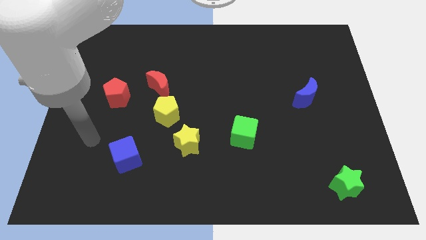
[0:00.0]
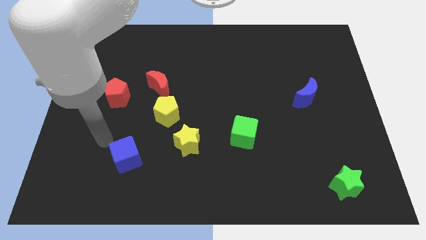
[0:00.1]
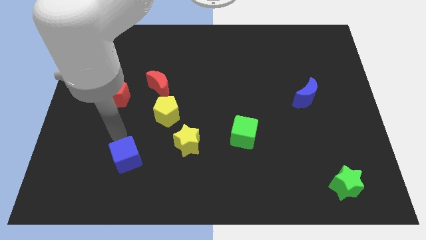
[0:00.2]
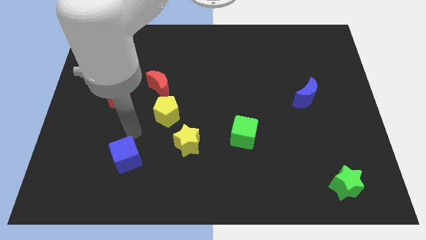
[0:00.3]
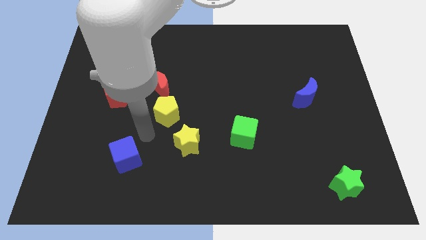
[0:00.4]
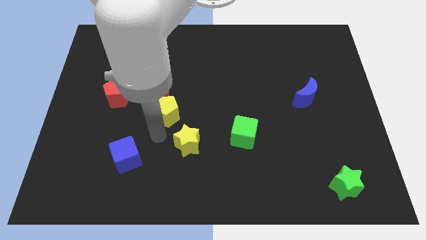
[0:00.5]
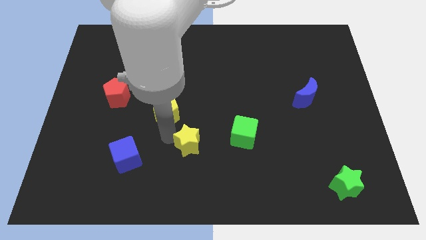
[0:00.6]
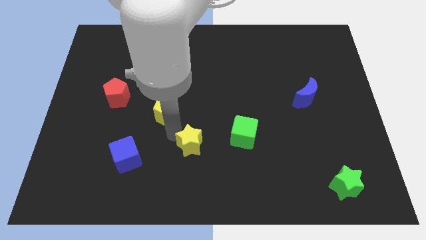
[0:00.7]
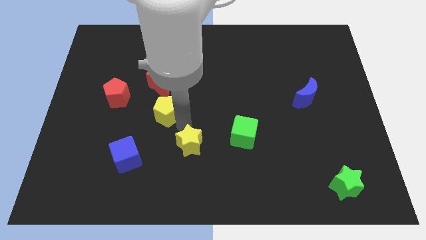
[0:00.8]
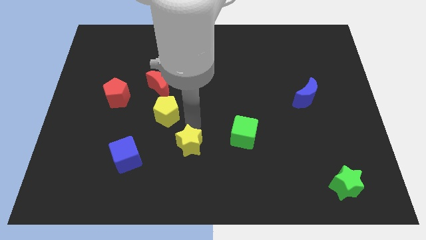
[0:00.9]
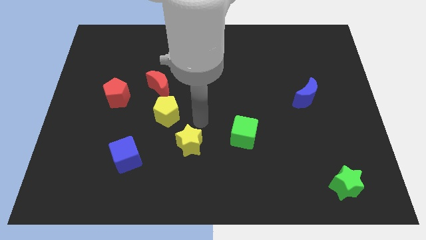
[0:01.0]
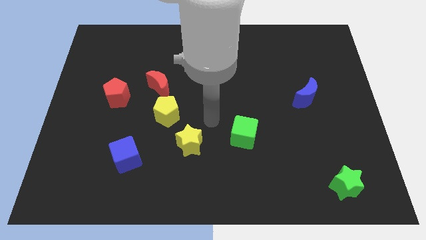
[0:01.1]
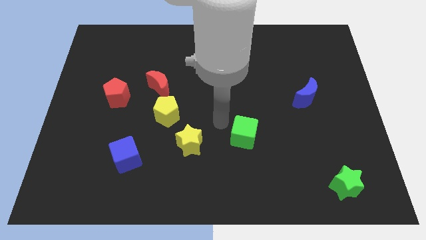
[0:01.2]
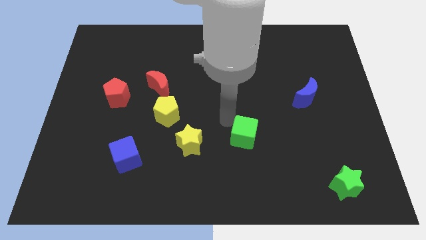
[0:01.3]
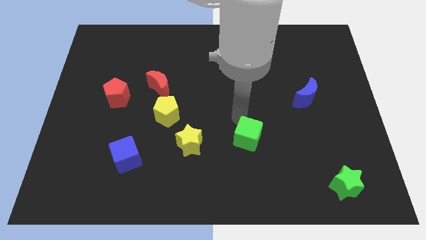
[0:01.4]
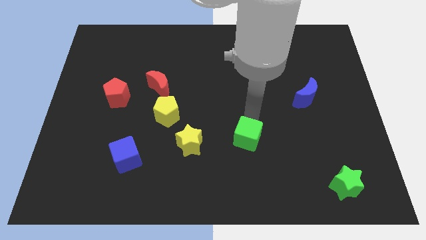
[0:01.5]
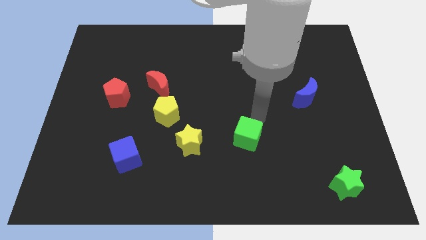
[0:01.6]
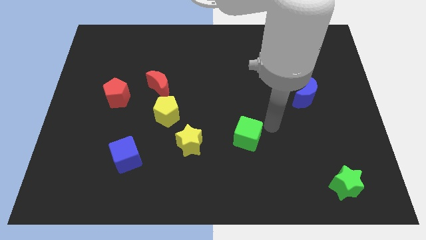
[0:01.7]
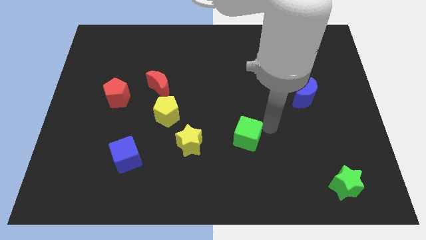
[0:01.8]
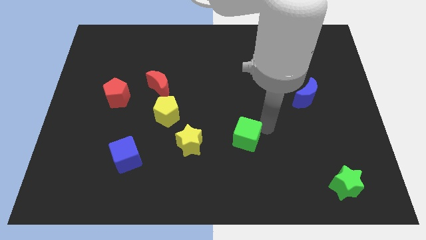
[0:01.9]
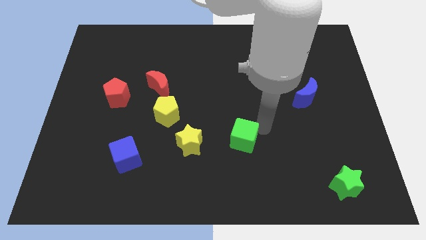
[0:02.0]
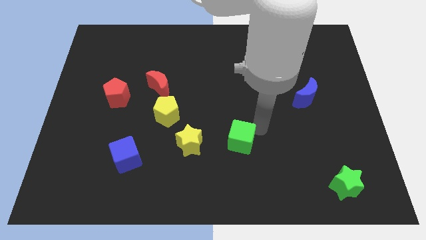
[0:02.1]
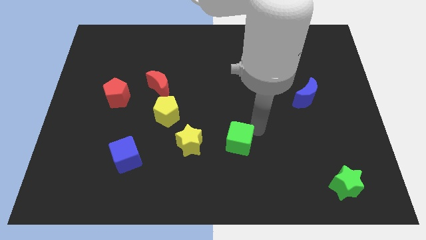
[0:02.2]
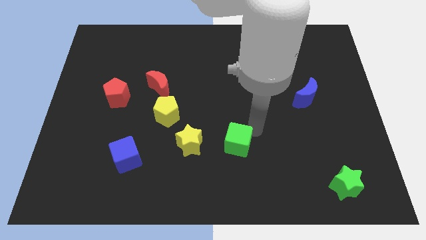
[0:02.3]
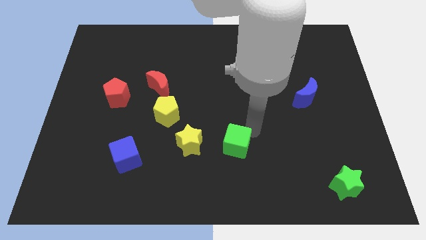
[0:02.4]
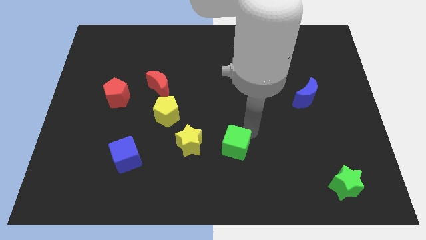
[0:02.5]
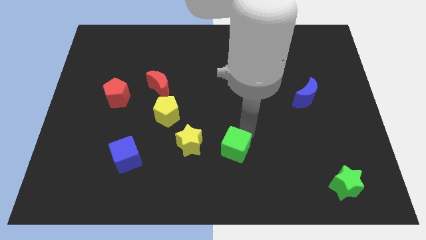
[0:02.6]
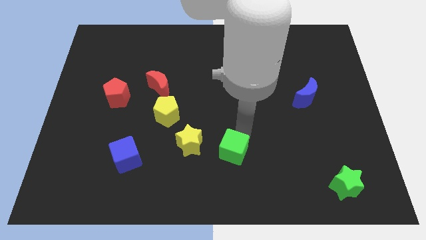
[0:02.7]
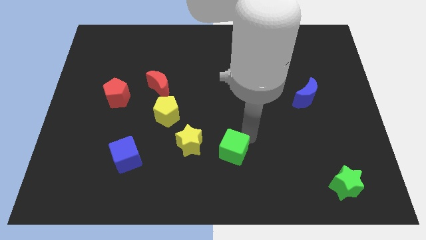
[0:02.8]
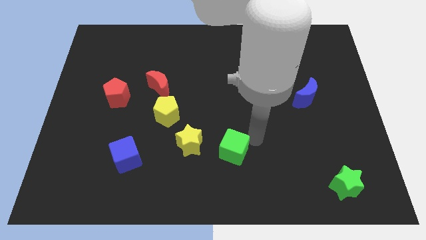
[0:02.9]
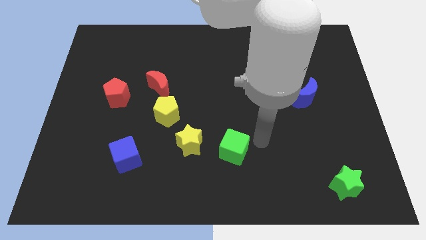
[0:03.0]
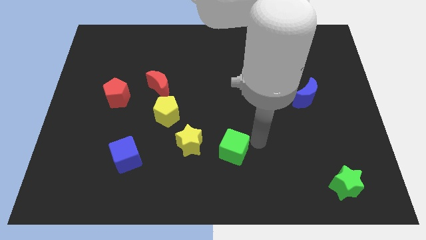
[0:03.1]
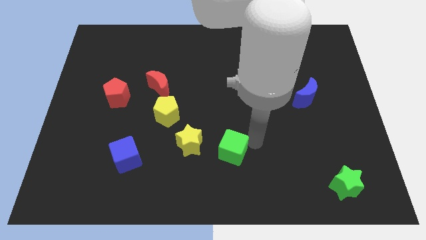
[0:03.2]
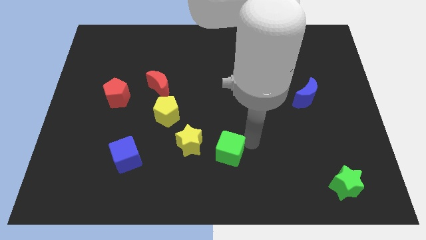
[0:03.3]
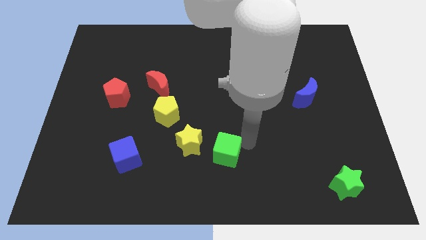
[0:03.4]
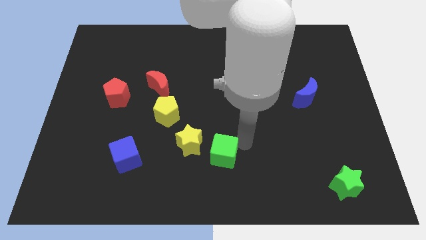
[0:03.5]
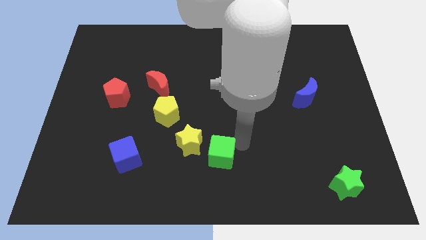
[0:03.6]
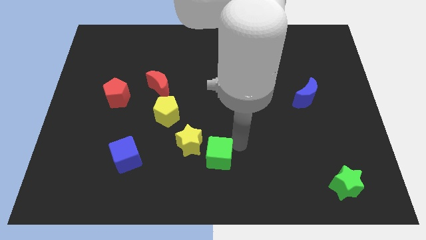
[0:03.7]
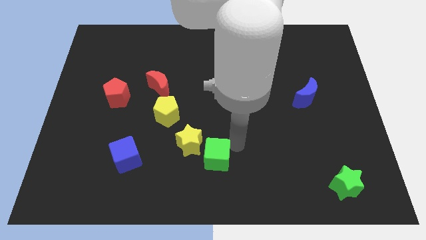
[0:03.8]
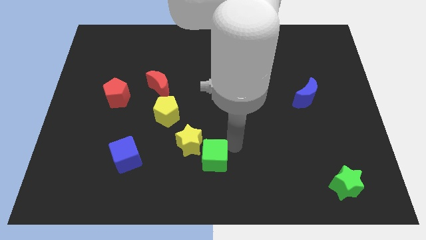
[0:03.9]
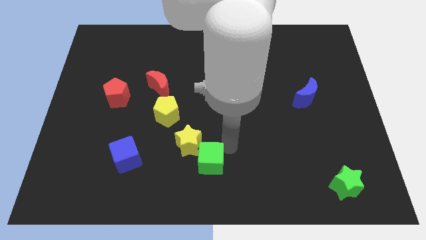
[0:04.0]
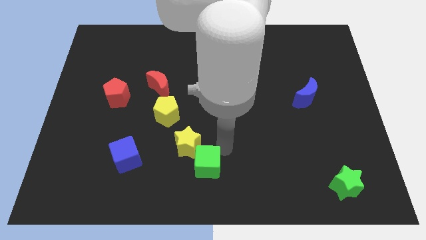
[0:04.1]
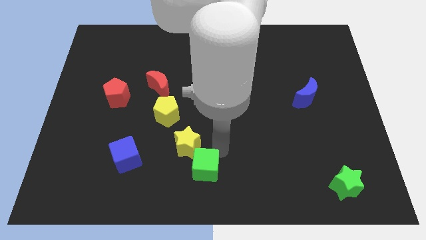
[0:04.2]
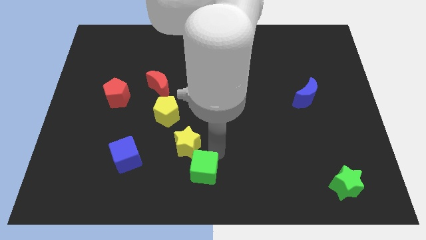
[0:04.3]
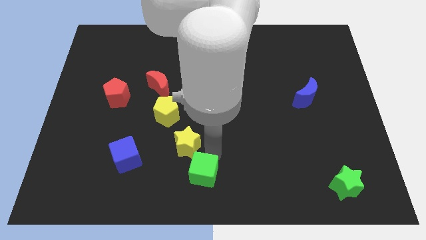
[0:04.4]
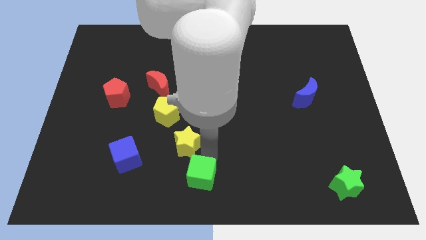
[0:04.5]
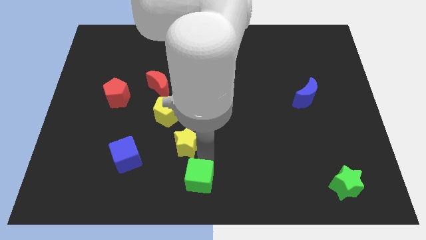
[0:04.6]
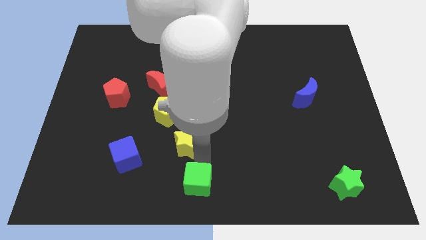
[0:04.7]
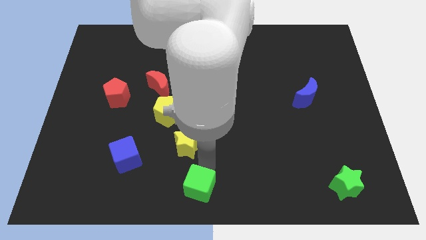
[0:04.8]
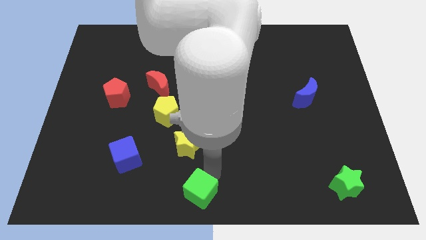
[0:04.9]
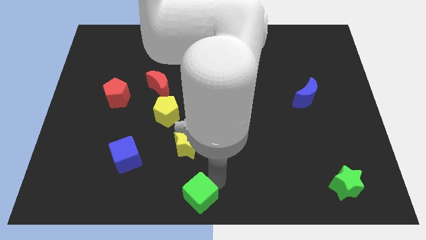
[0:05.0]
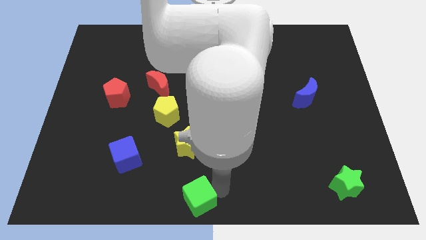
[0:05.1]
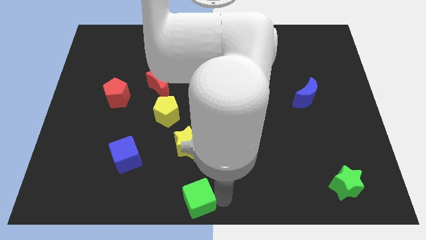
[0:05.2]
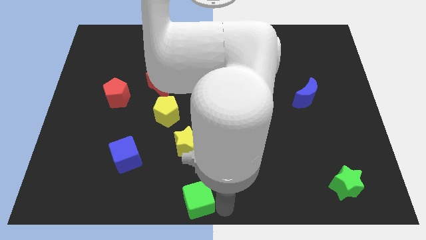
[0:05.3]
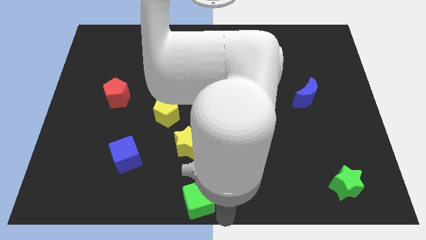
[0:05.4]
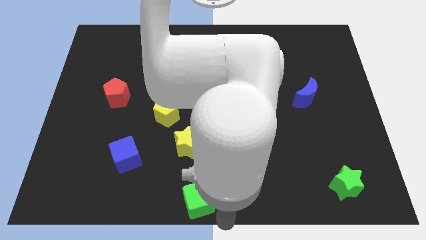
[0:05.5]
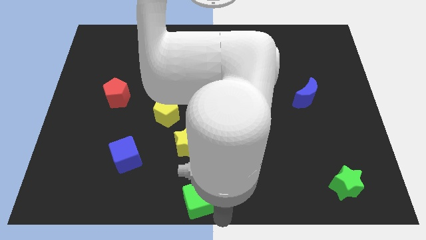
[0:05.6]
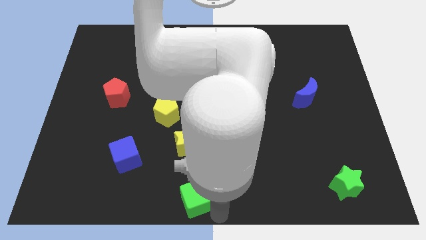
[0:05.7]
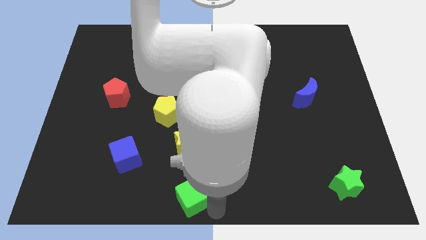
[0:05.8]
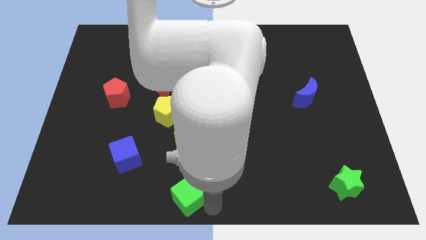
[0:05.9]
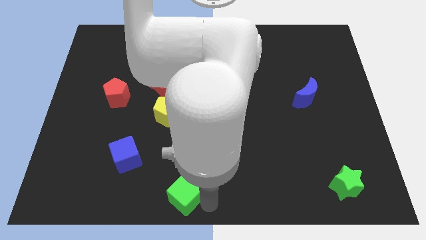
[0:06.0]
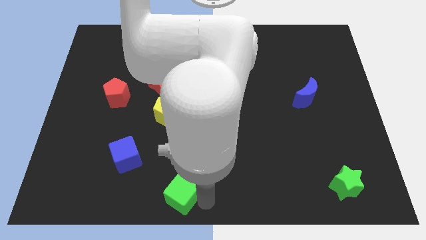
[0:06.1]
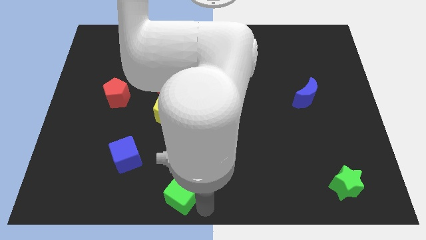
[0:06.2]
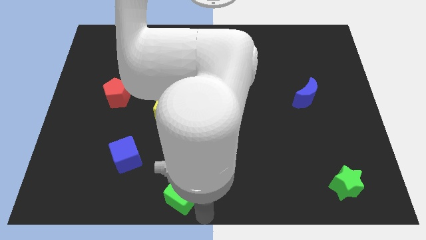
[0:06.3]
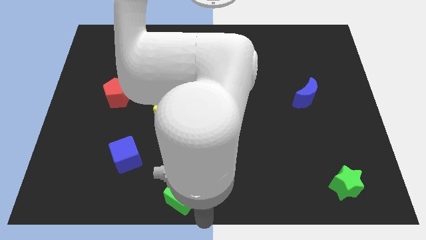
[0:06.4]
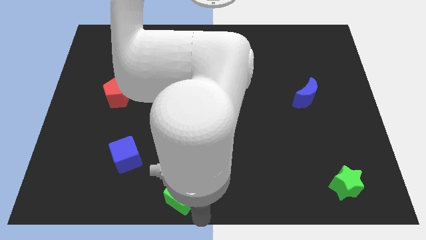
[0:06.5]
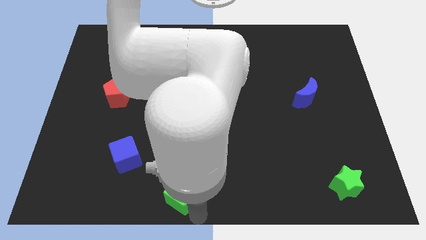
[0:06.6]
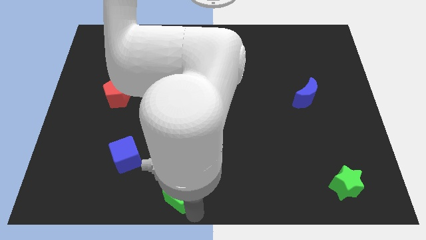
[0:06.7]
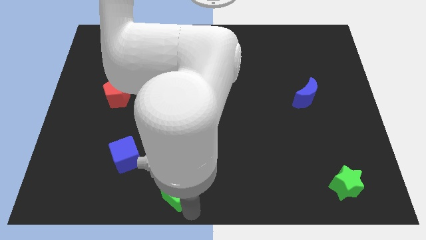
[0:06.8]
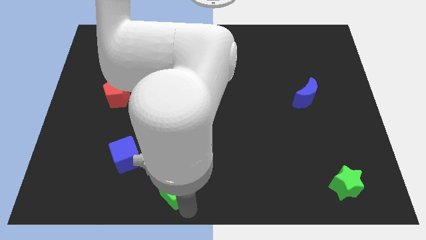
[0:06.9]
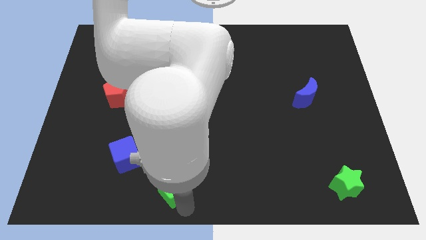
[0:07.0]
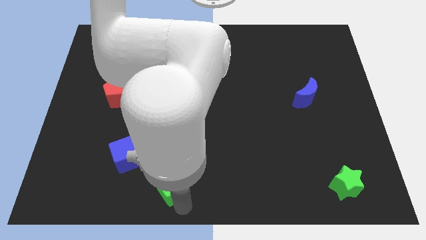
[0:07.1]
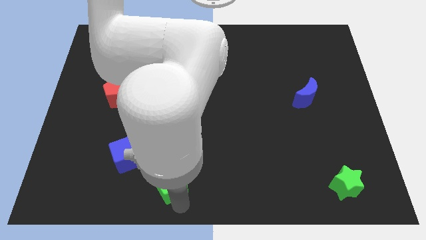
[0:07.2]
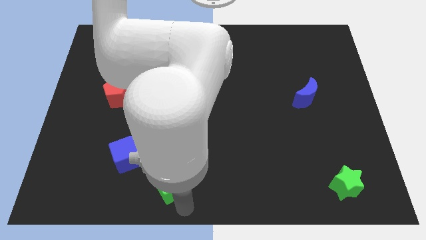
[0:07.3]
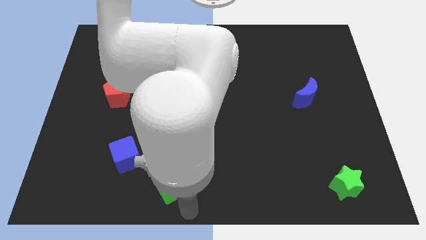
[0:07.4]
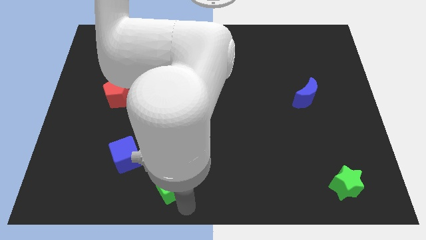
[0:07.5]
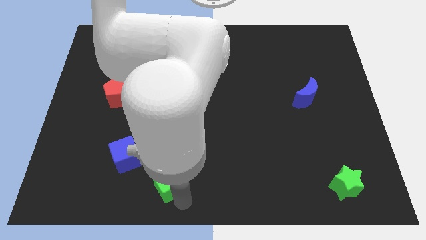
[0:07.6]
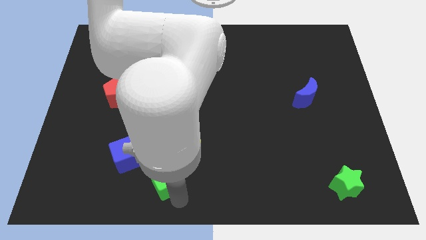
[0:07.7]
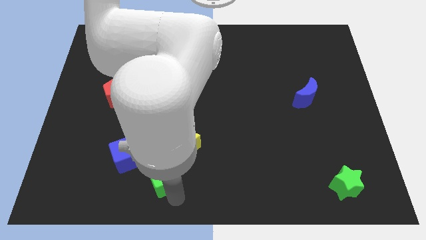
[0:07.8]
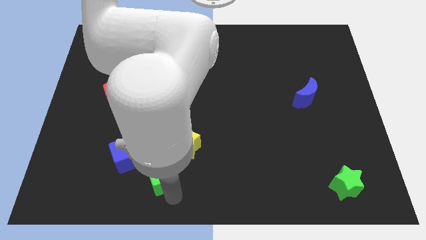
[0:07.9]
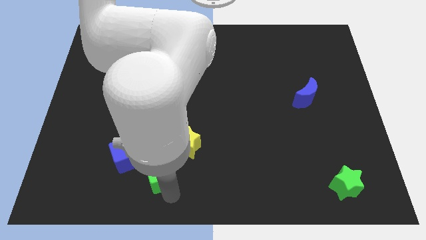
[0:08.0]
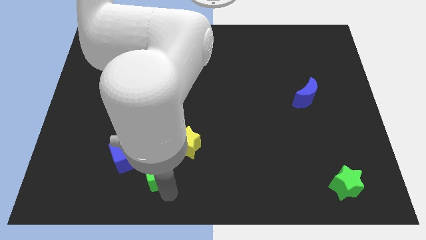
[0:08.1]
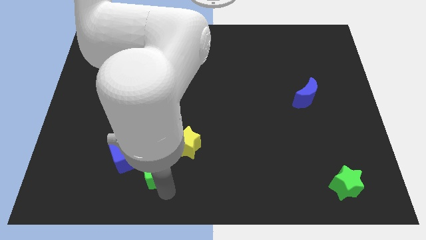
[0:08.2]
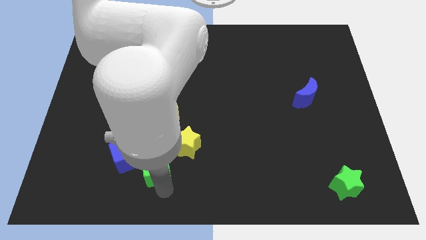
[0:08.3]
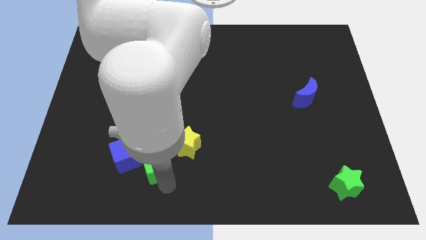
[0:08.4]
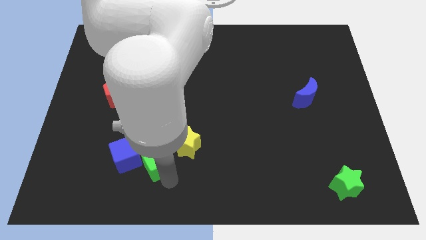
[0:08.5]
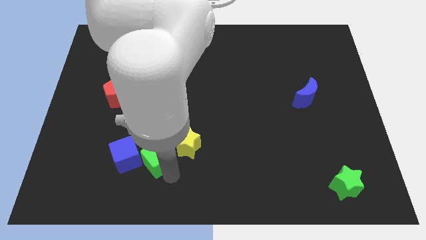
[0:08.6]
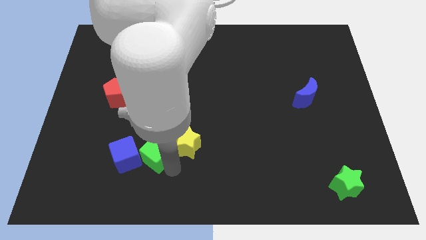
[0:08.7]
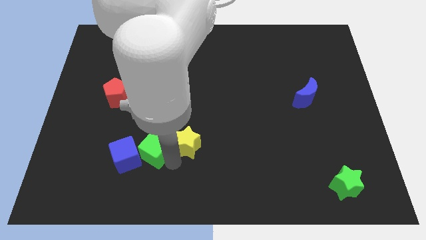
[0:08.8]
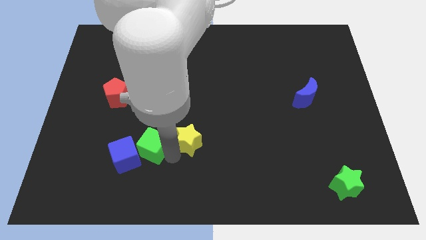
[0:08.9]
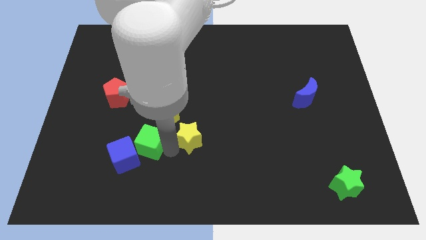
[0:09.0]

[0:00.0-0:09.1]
slide the green cube left
